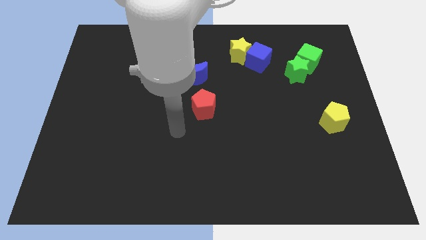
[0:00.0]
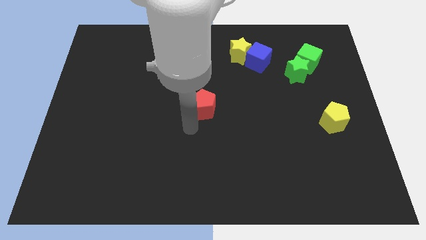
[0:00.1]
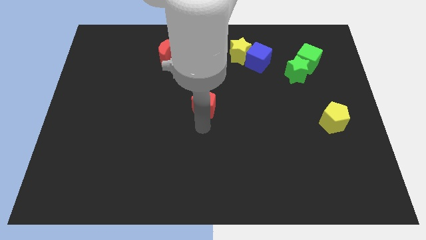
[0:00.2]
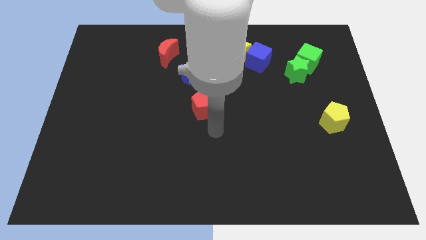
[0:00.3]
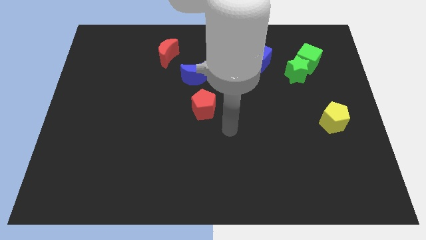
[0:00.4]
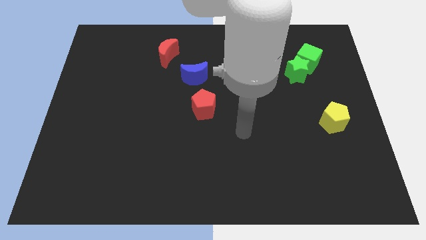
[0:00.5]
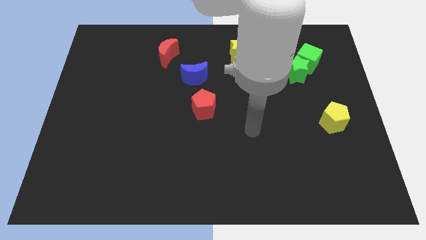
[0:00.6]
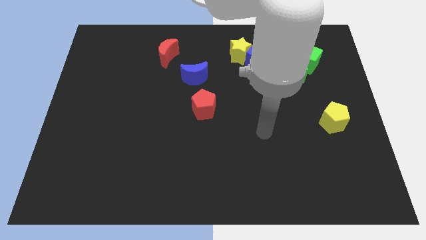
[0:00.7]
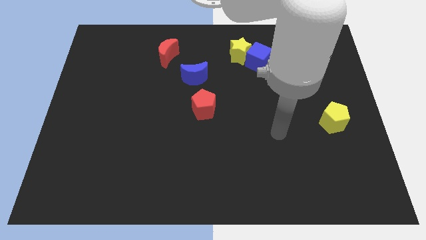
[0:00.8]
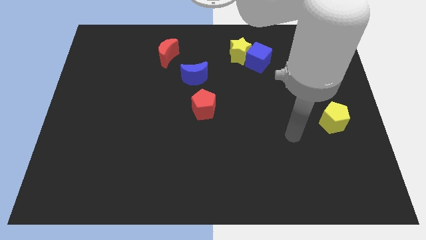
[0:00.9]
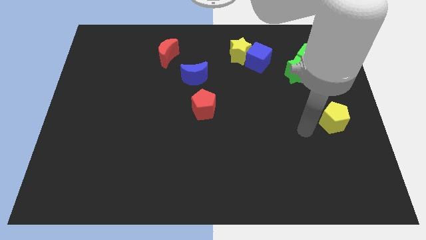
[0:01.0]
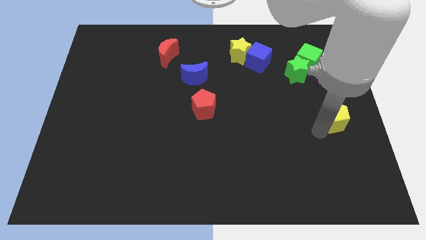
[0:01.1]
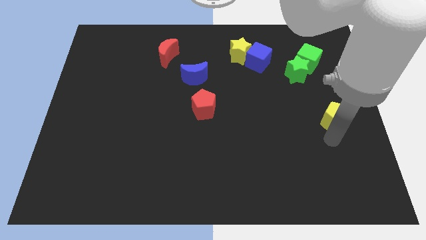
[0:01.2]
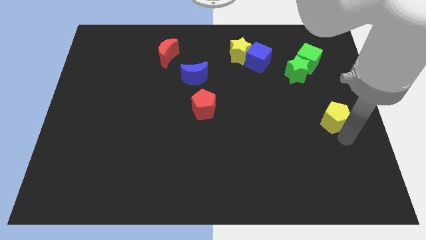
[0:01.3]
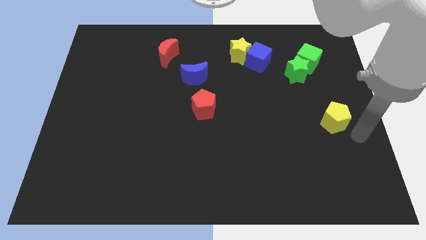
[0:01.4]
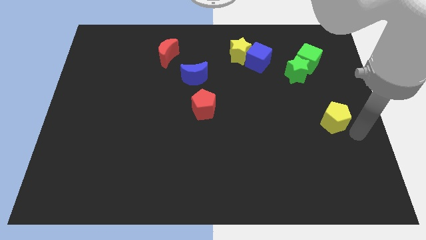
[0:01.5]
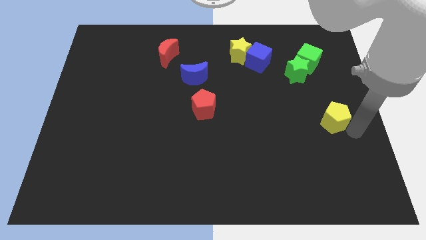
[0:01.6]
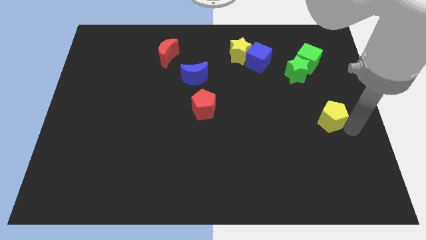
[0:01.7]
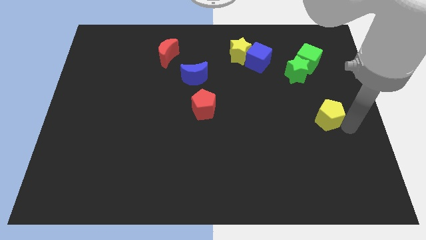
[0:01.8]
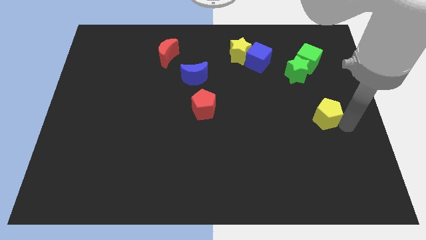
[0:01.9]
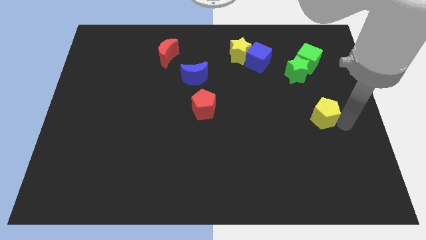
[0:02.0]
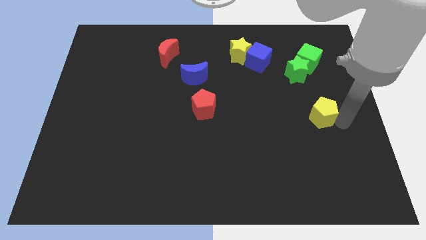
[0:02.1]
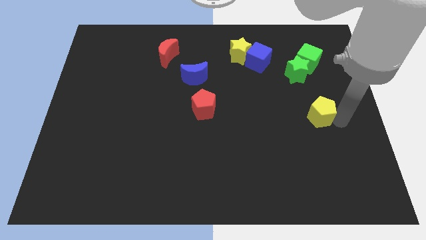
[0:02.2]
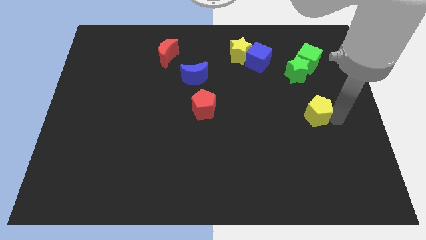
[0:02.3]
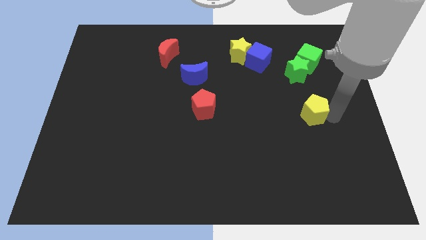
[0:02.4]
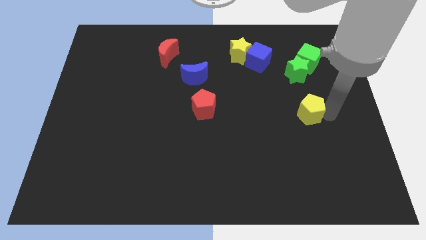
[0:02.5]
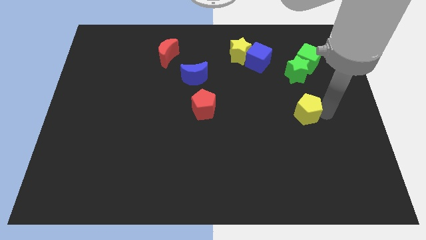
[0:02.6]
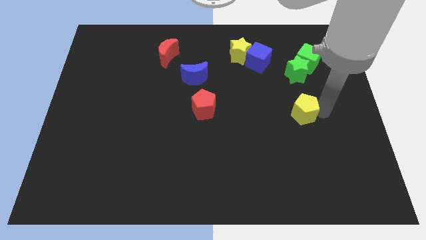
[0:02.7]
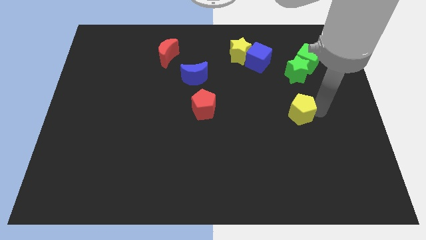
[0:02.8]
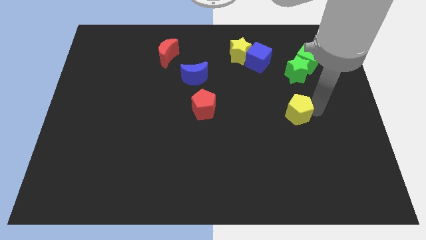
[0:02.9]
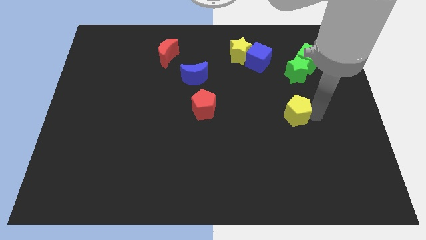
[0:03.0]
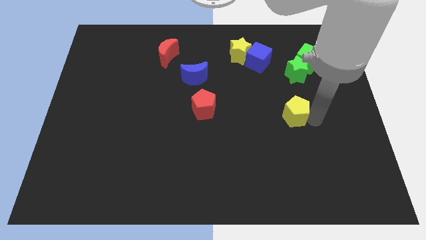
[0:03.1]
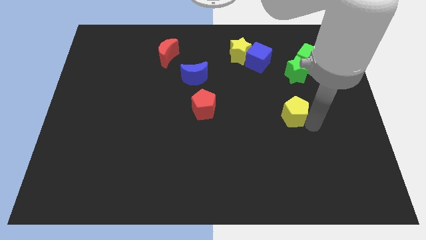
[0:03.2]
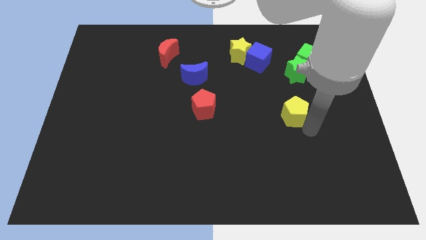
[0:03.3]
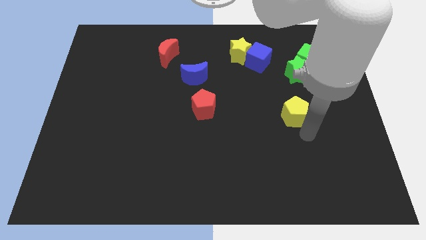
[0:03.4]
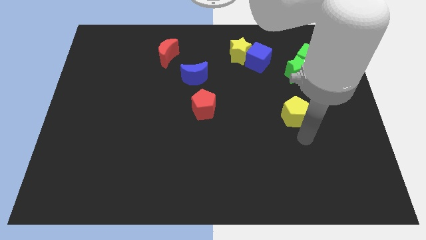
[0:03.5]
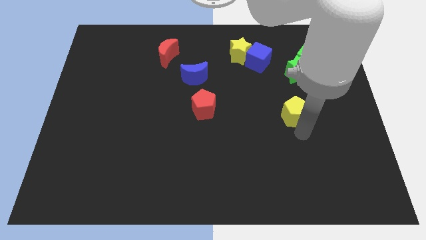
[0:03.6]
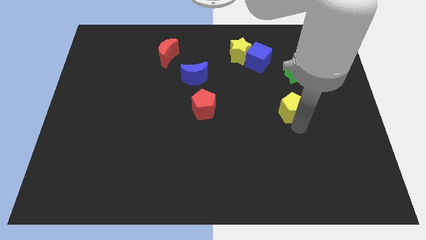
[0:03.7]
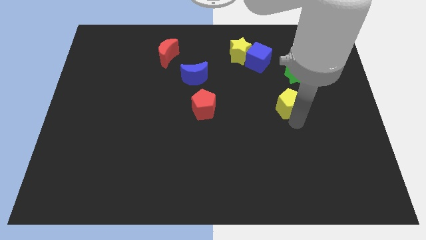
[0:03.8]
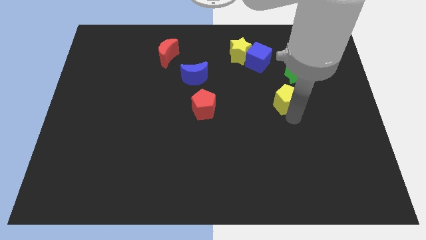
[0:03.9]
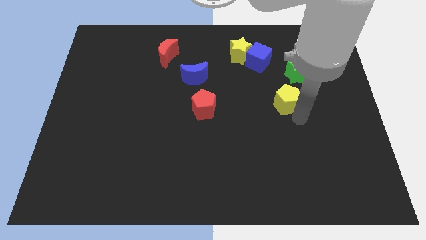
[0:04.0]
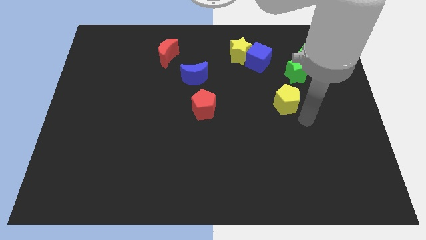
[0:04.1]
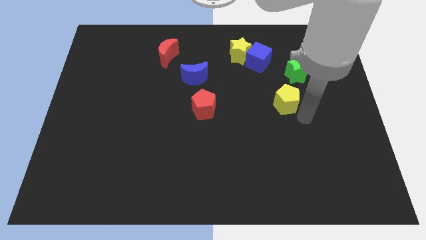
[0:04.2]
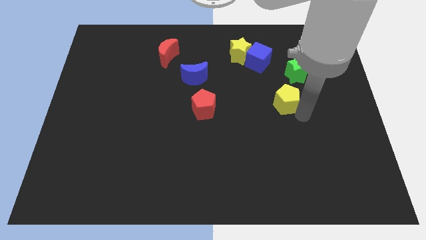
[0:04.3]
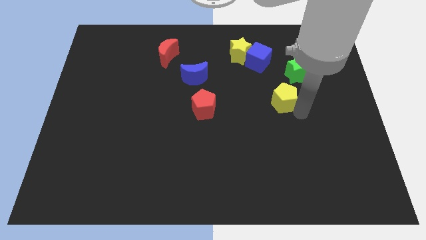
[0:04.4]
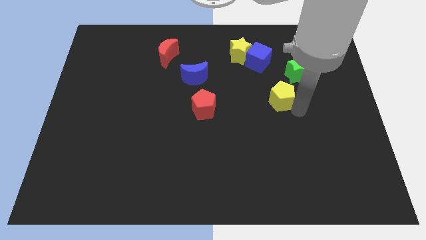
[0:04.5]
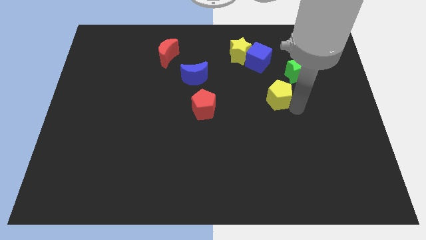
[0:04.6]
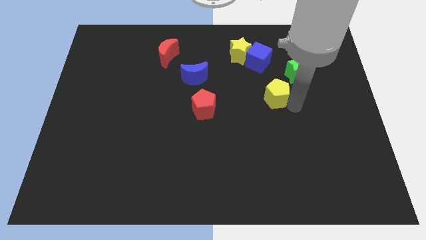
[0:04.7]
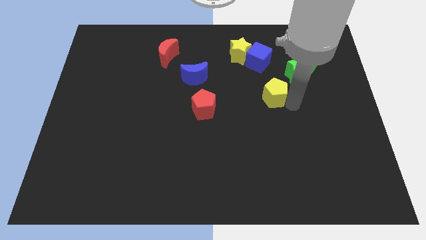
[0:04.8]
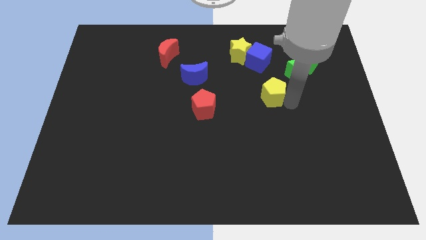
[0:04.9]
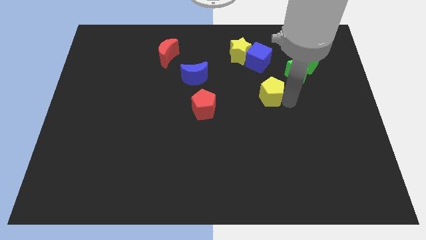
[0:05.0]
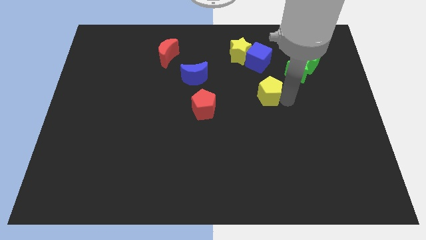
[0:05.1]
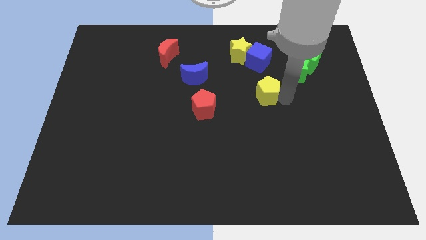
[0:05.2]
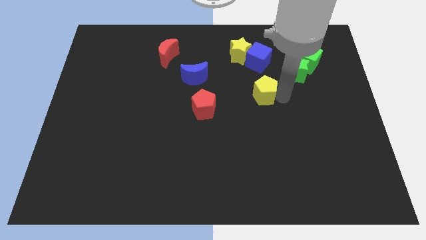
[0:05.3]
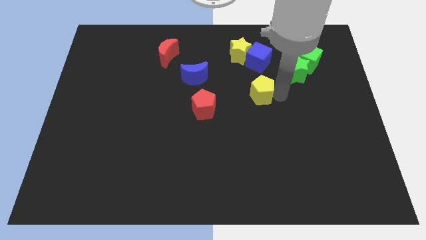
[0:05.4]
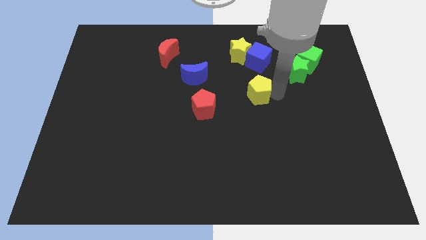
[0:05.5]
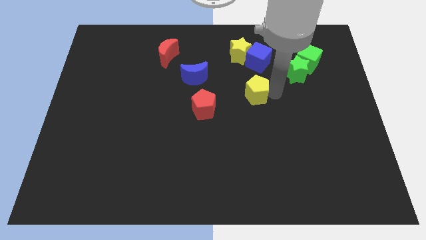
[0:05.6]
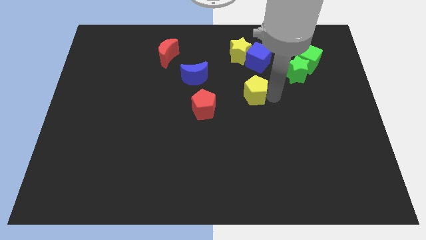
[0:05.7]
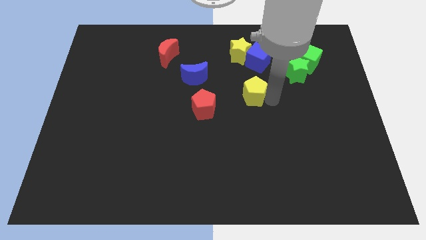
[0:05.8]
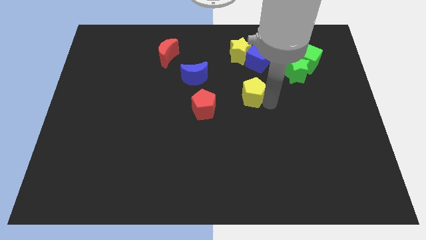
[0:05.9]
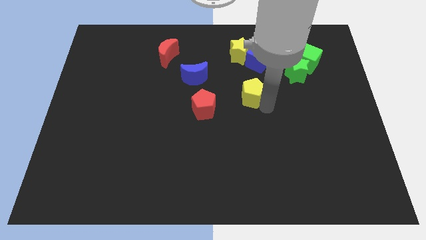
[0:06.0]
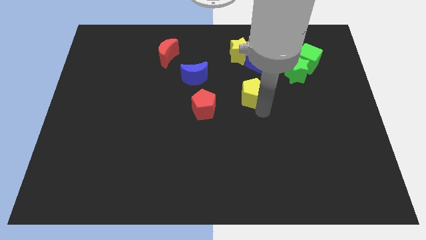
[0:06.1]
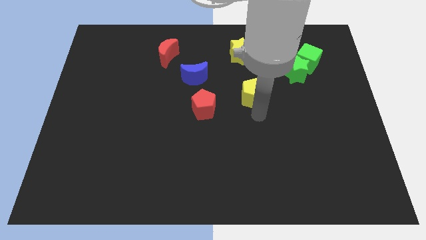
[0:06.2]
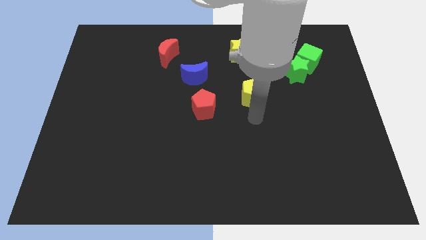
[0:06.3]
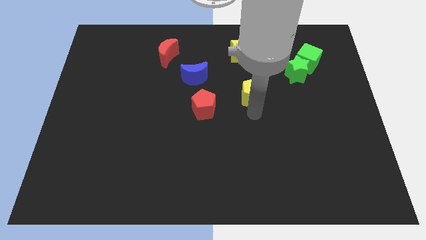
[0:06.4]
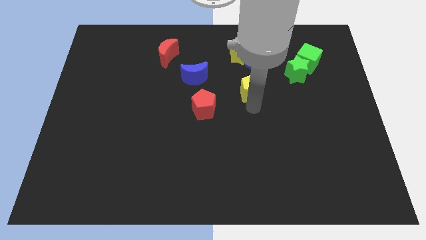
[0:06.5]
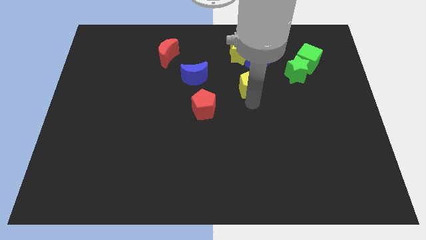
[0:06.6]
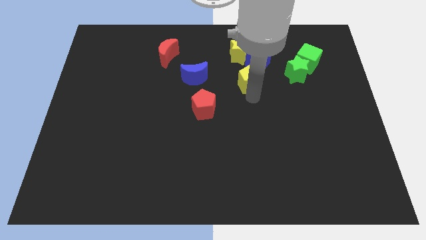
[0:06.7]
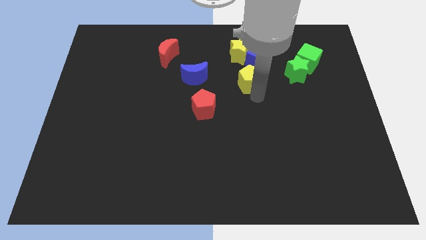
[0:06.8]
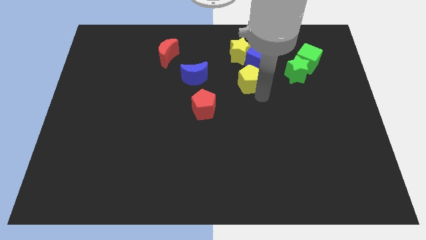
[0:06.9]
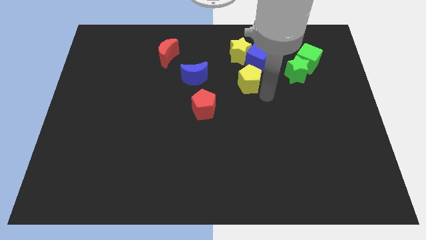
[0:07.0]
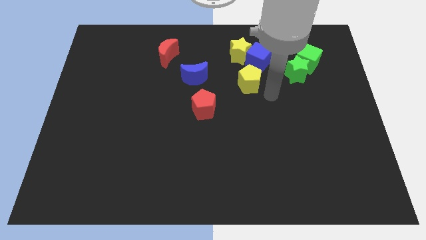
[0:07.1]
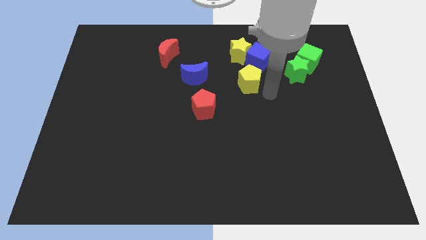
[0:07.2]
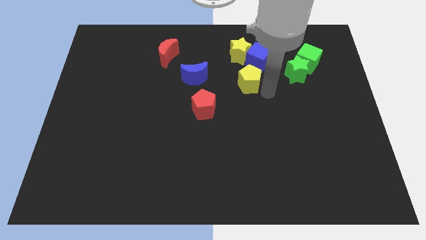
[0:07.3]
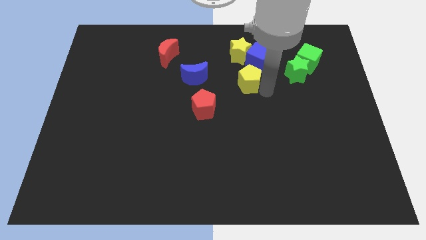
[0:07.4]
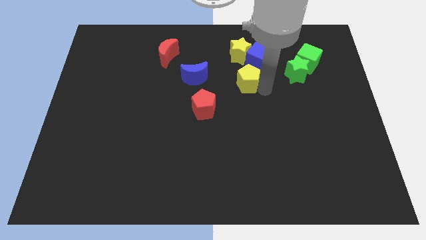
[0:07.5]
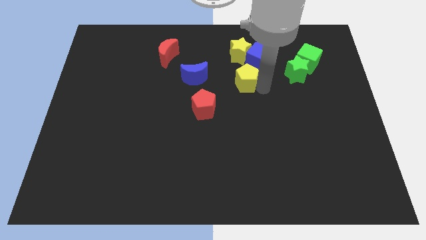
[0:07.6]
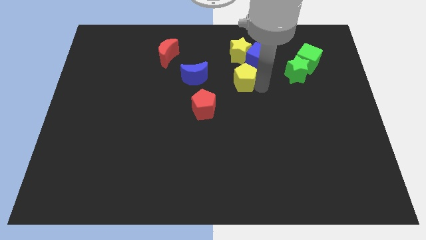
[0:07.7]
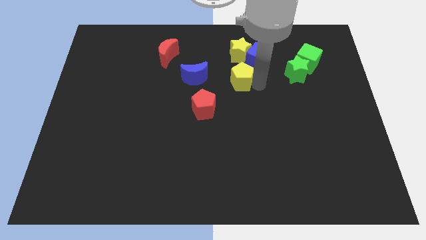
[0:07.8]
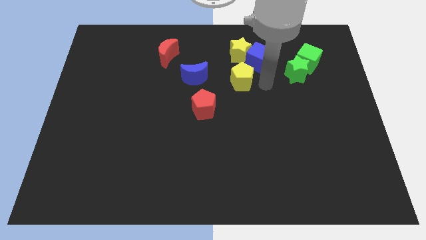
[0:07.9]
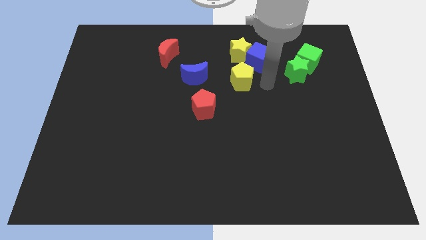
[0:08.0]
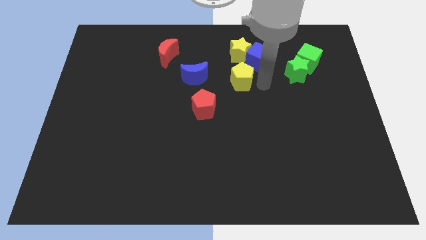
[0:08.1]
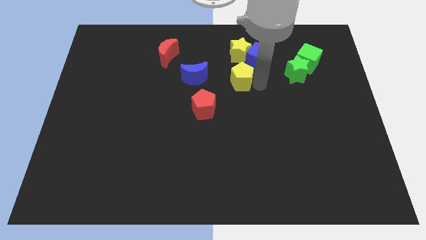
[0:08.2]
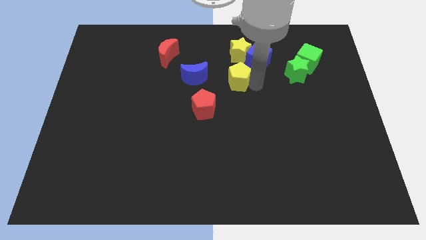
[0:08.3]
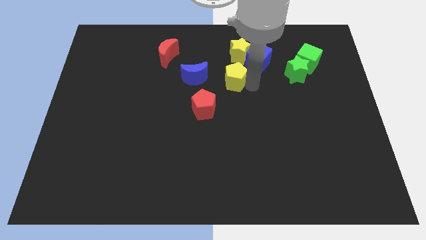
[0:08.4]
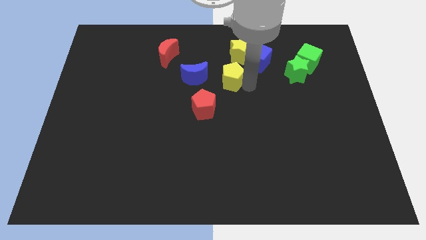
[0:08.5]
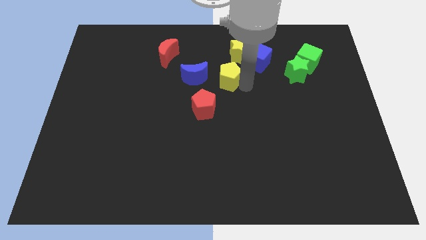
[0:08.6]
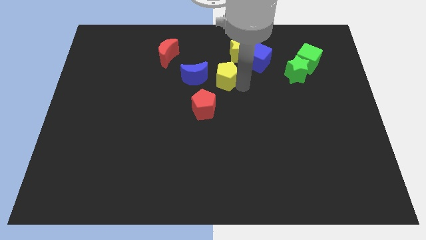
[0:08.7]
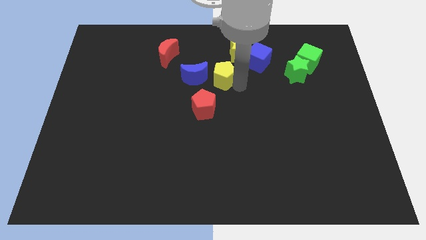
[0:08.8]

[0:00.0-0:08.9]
put the yellow pentagon above the red pentagon
